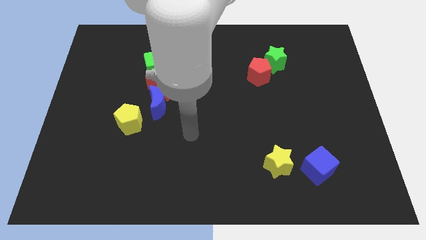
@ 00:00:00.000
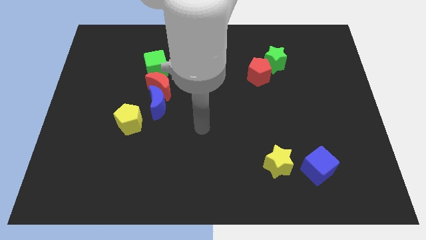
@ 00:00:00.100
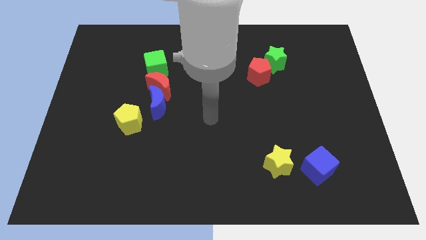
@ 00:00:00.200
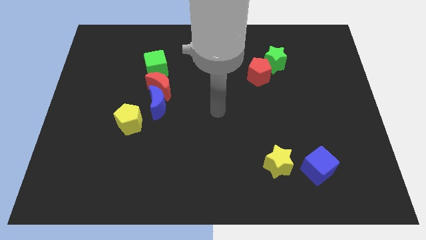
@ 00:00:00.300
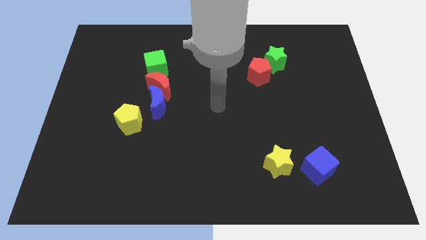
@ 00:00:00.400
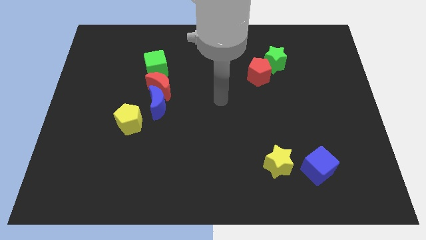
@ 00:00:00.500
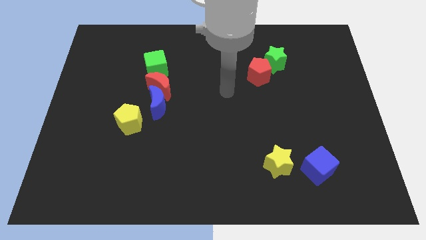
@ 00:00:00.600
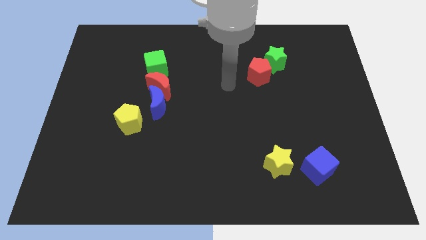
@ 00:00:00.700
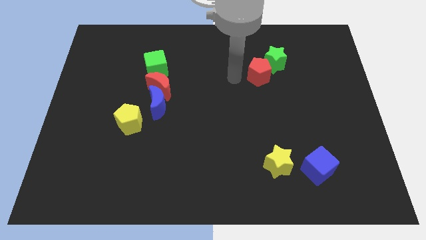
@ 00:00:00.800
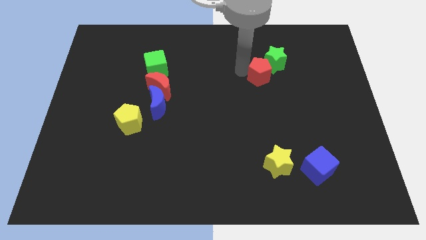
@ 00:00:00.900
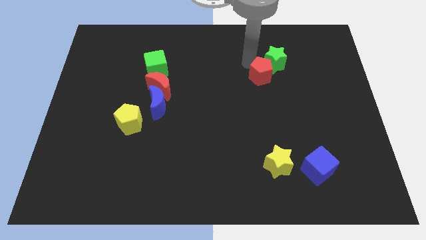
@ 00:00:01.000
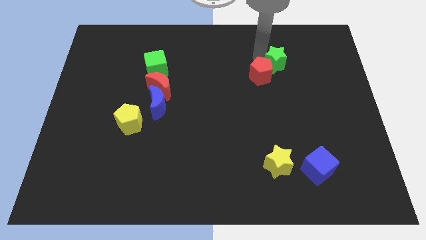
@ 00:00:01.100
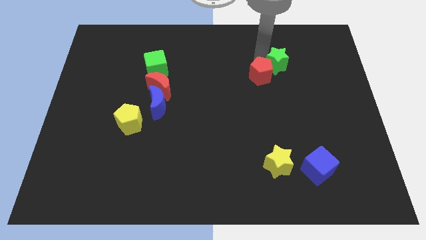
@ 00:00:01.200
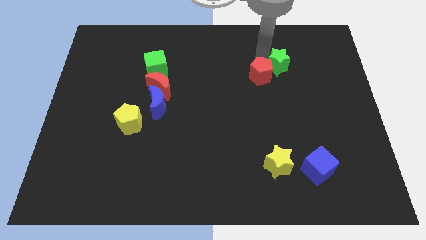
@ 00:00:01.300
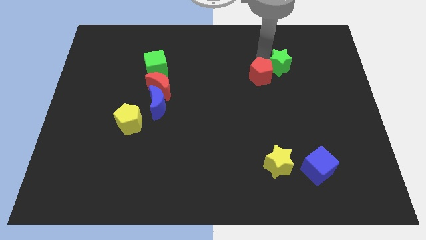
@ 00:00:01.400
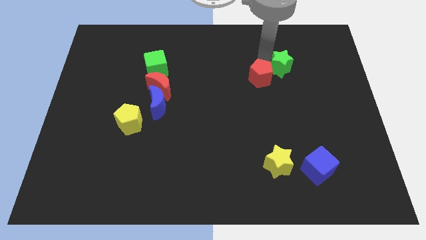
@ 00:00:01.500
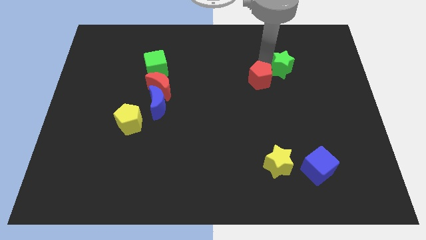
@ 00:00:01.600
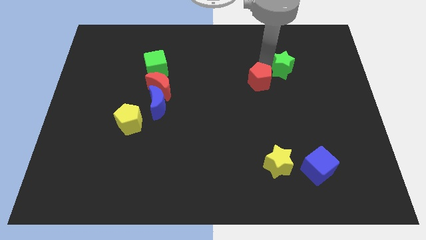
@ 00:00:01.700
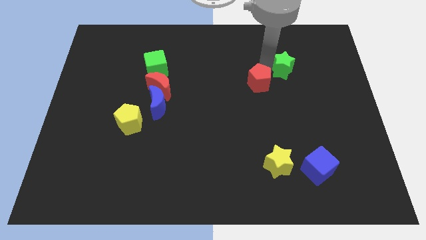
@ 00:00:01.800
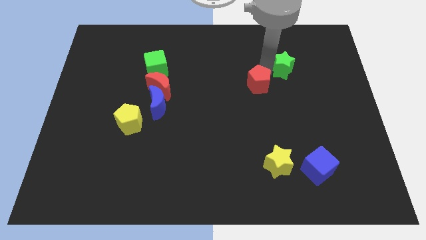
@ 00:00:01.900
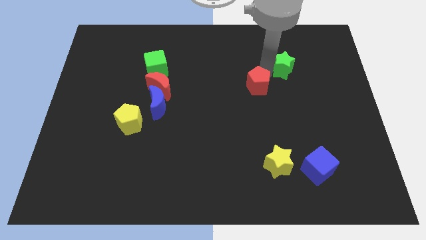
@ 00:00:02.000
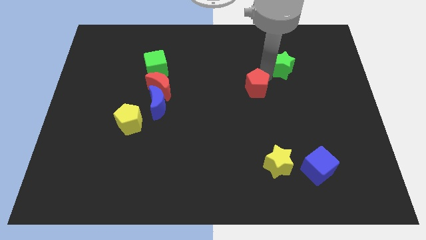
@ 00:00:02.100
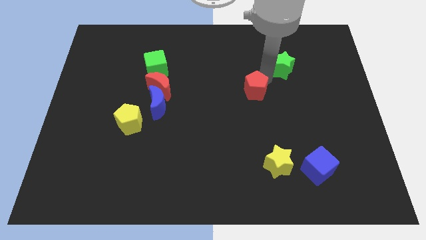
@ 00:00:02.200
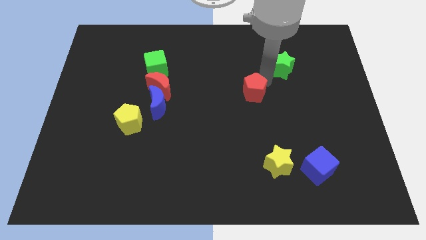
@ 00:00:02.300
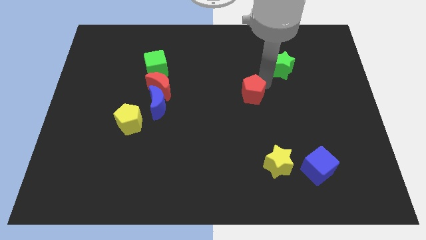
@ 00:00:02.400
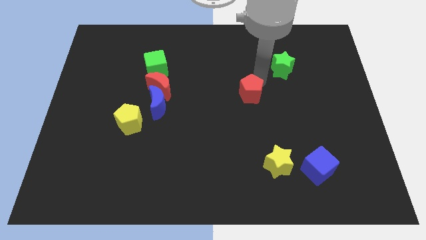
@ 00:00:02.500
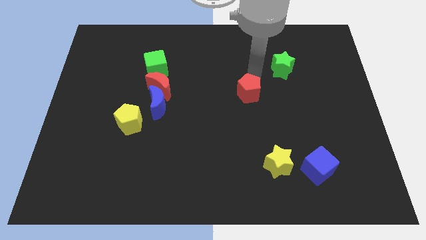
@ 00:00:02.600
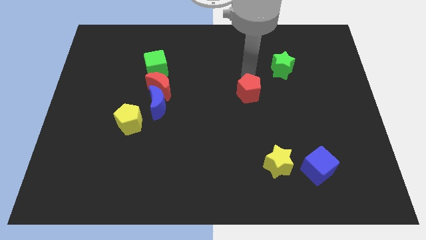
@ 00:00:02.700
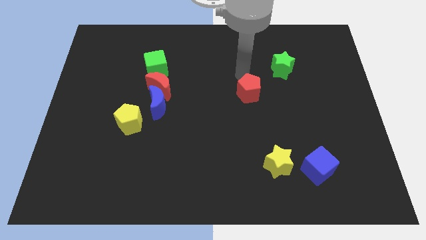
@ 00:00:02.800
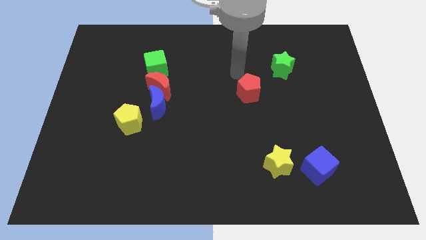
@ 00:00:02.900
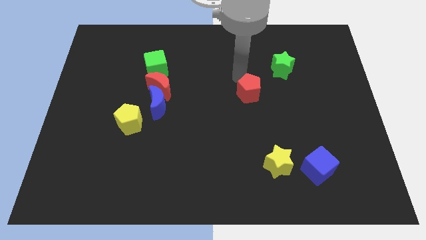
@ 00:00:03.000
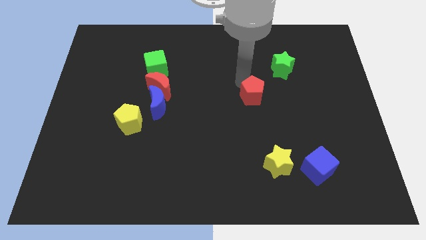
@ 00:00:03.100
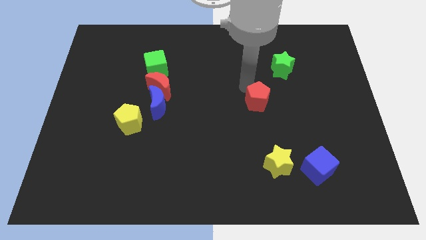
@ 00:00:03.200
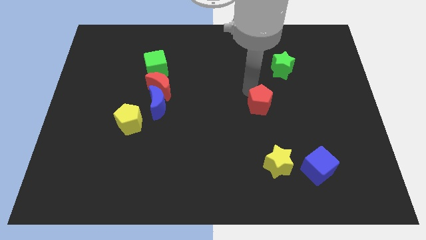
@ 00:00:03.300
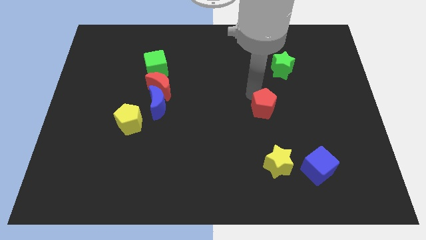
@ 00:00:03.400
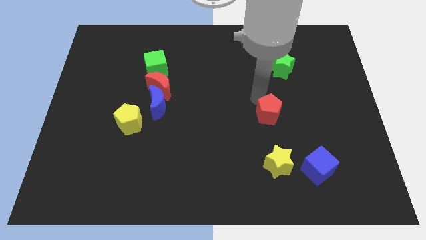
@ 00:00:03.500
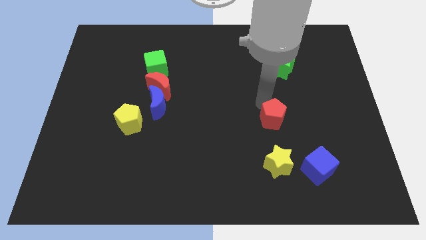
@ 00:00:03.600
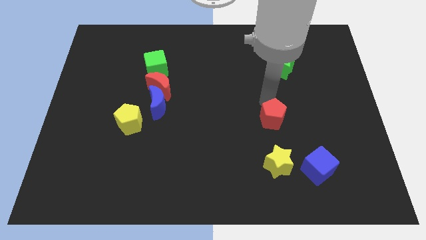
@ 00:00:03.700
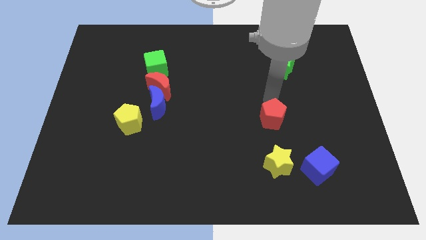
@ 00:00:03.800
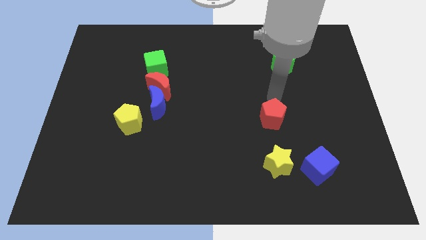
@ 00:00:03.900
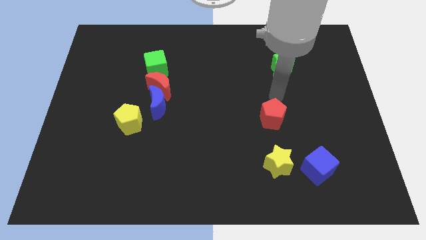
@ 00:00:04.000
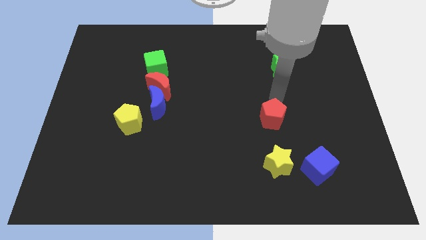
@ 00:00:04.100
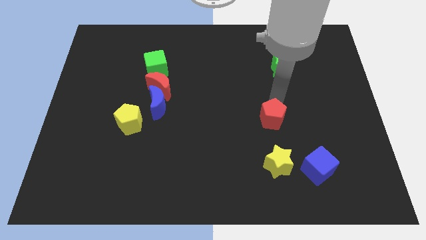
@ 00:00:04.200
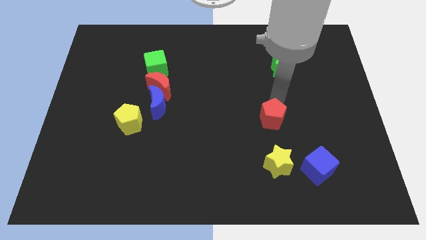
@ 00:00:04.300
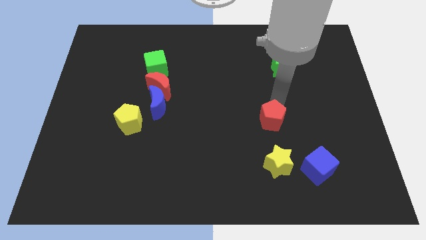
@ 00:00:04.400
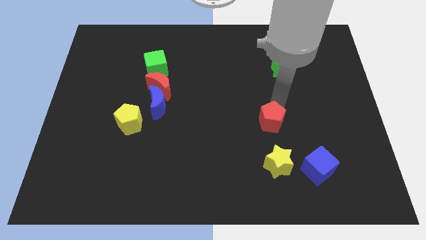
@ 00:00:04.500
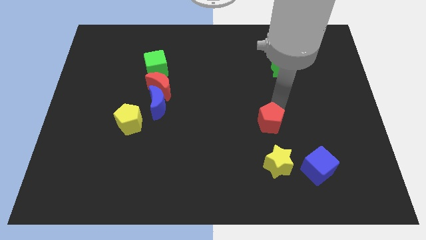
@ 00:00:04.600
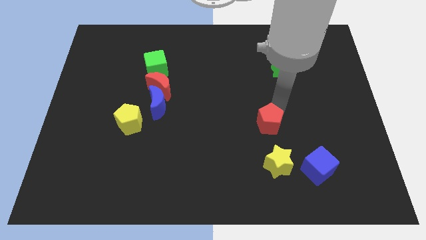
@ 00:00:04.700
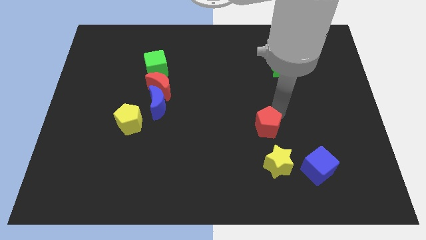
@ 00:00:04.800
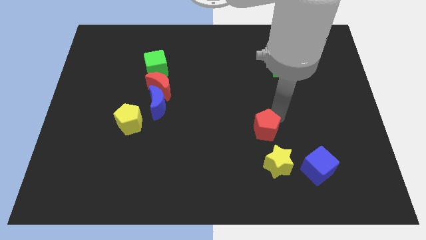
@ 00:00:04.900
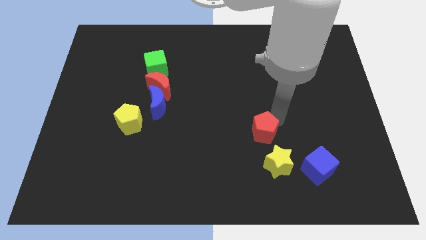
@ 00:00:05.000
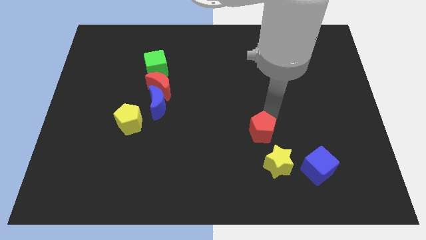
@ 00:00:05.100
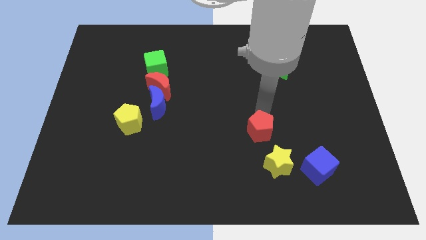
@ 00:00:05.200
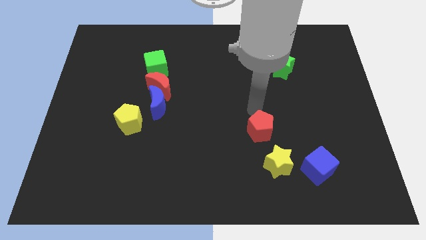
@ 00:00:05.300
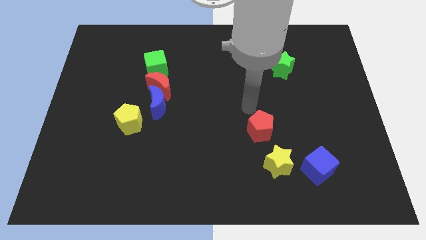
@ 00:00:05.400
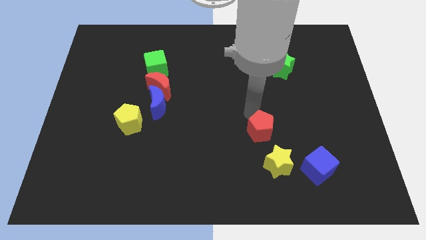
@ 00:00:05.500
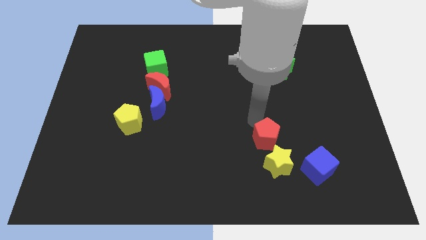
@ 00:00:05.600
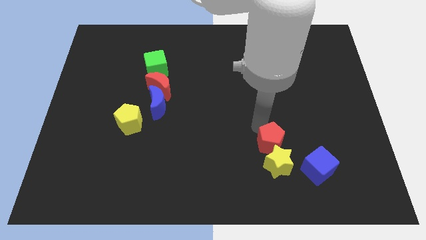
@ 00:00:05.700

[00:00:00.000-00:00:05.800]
slide the red pentagon towards the yellow star
